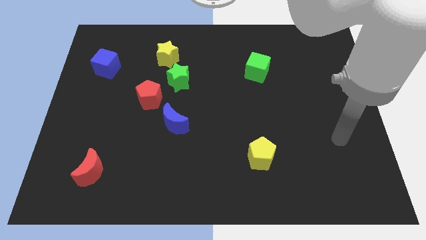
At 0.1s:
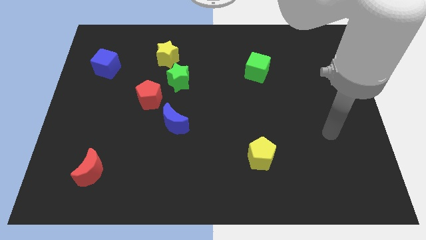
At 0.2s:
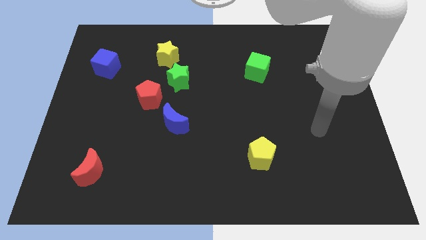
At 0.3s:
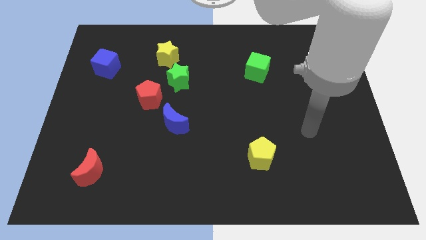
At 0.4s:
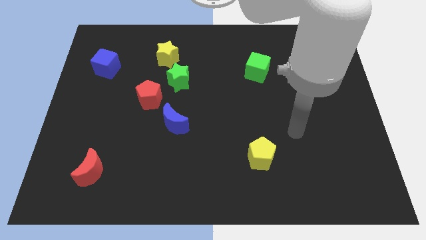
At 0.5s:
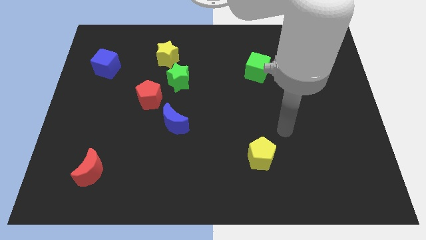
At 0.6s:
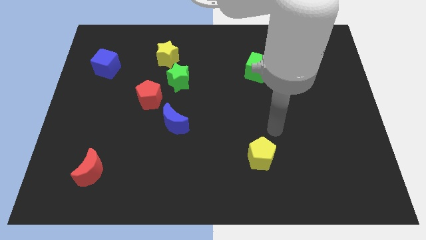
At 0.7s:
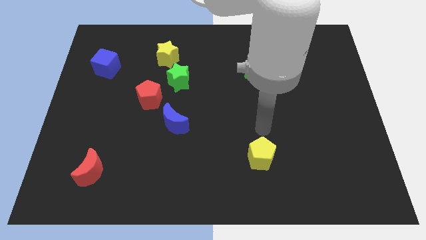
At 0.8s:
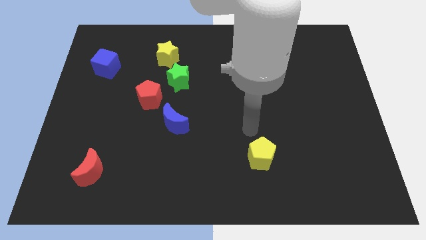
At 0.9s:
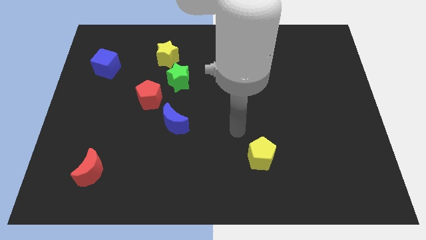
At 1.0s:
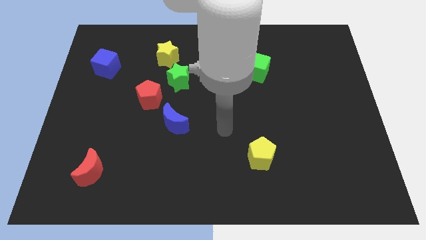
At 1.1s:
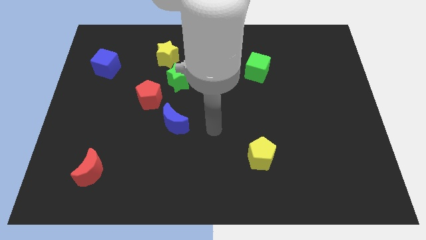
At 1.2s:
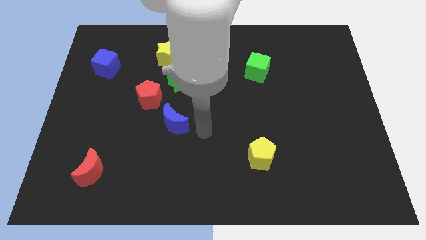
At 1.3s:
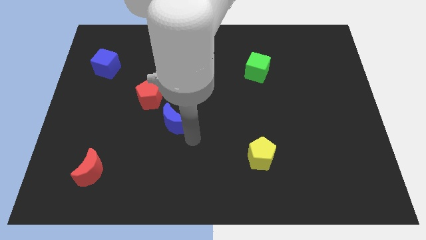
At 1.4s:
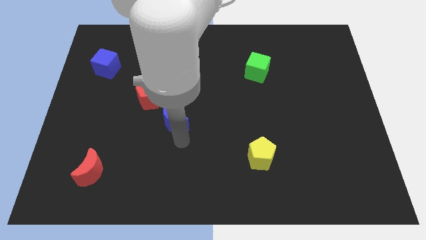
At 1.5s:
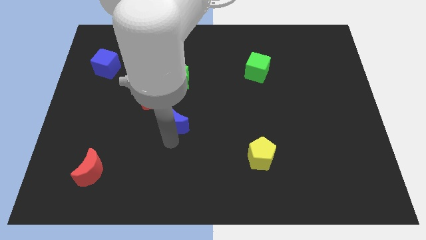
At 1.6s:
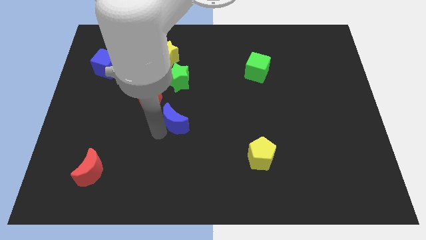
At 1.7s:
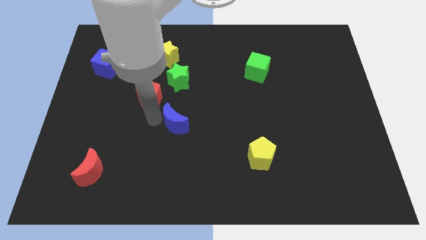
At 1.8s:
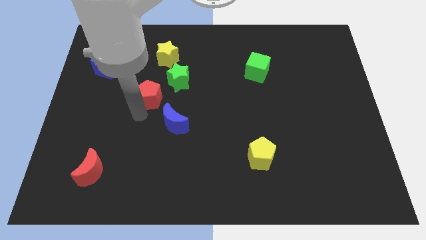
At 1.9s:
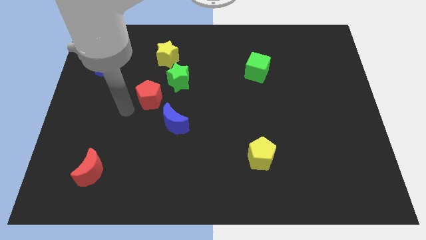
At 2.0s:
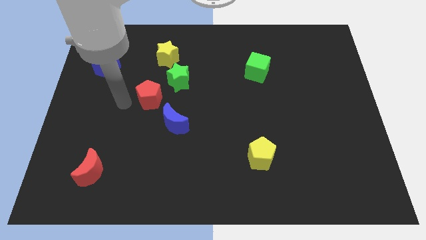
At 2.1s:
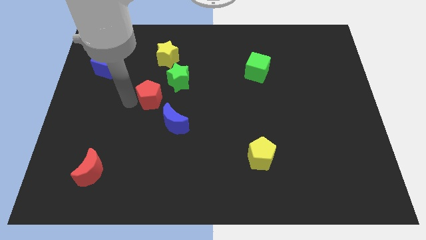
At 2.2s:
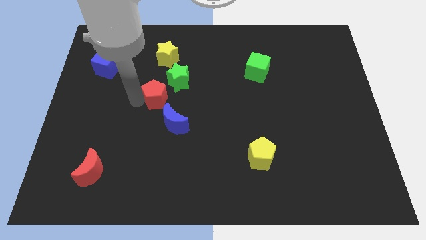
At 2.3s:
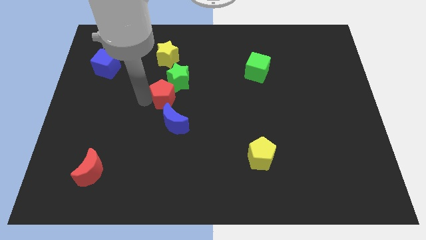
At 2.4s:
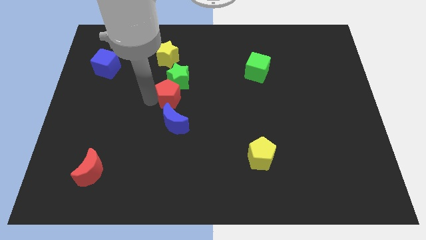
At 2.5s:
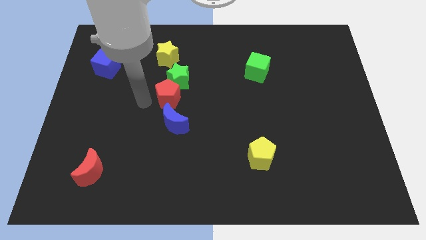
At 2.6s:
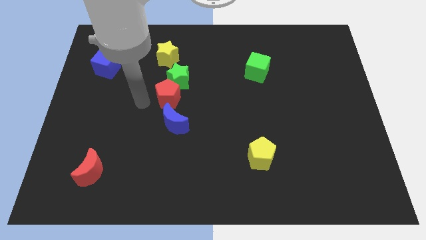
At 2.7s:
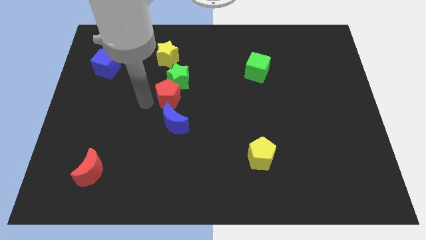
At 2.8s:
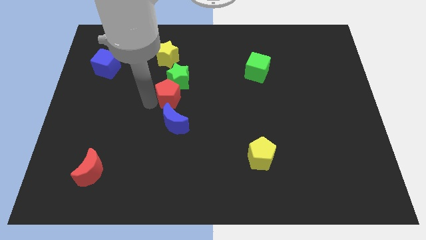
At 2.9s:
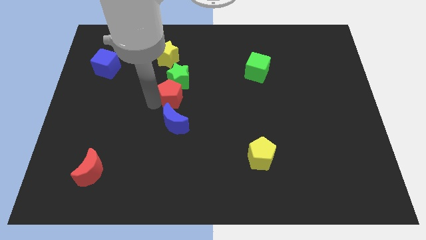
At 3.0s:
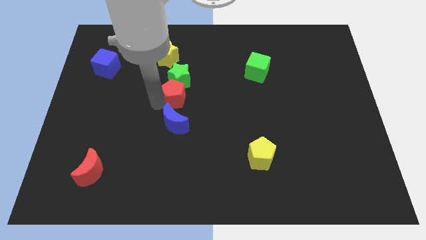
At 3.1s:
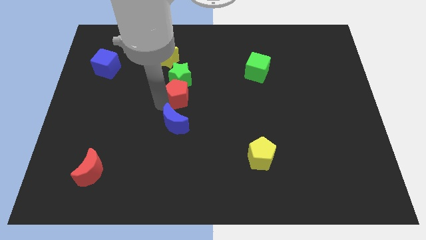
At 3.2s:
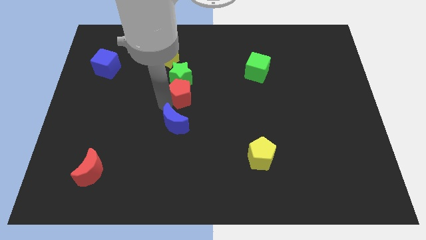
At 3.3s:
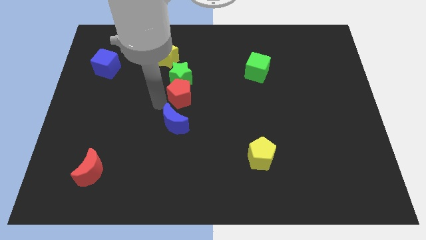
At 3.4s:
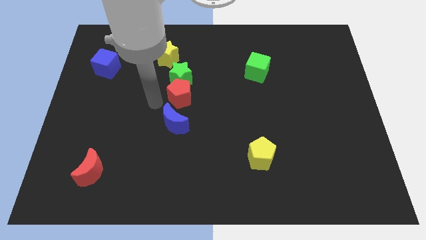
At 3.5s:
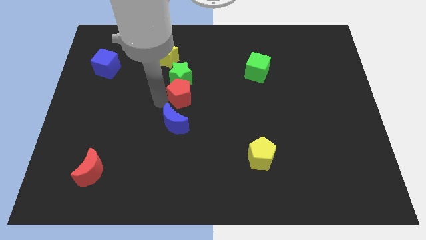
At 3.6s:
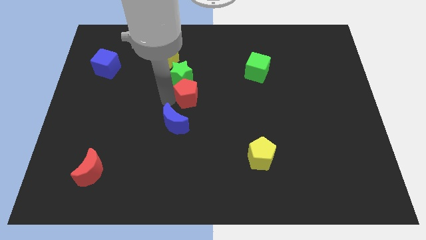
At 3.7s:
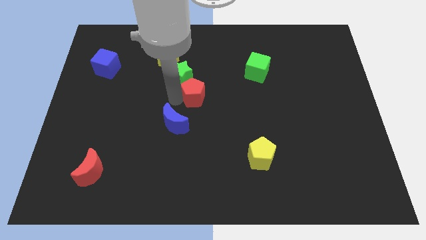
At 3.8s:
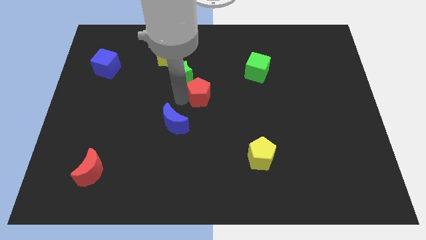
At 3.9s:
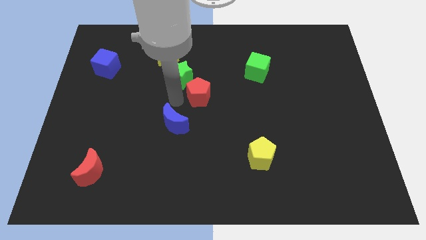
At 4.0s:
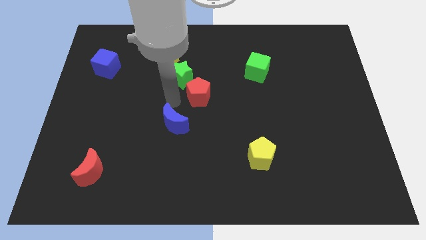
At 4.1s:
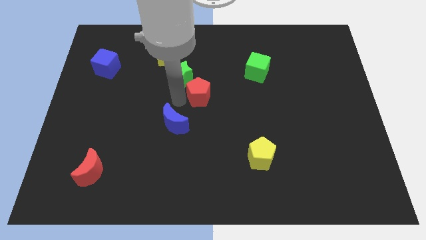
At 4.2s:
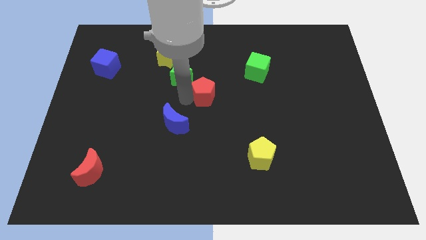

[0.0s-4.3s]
move the red pentagon up and to the right a little bit

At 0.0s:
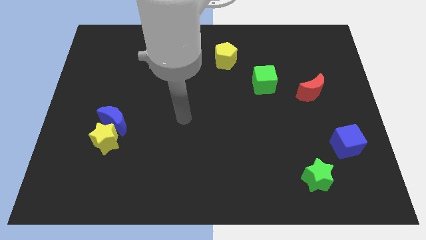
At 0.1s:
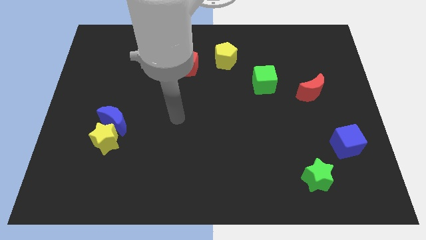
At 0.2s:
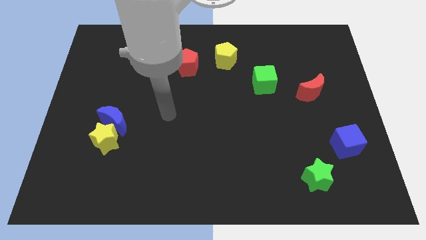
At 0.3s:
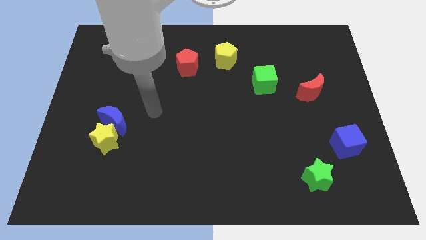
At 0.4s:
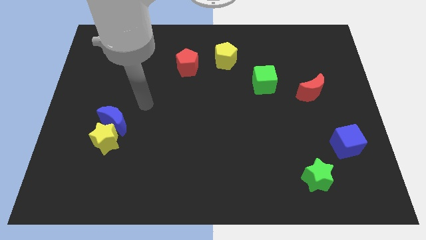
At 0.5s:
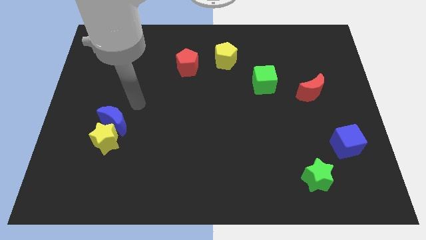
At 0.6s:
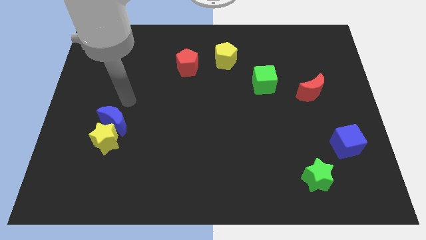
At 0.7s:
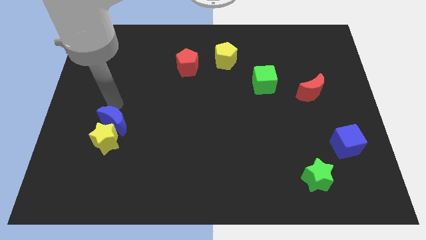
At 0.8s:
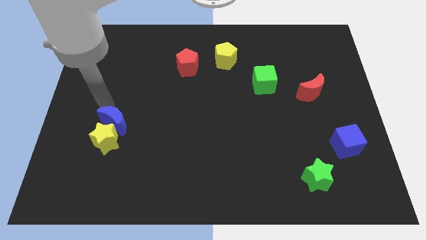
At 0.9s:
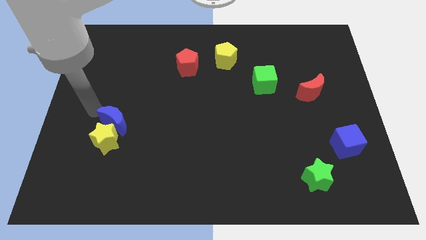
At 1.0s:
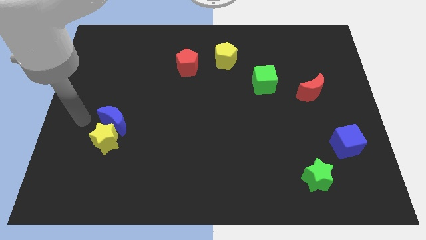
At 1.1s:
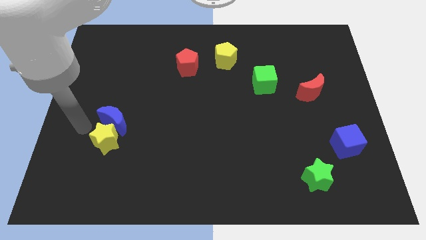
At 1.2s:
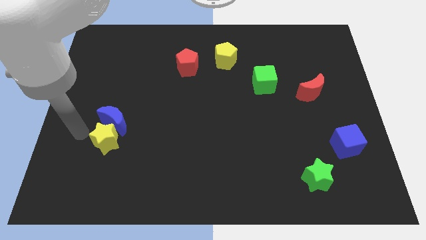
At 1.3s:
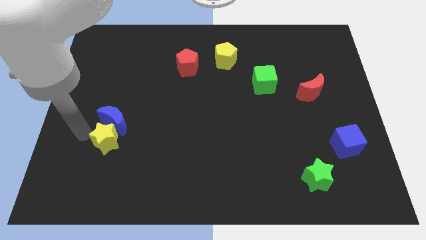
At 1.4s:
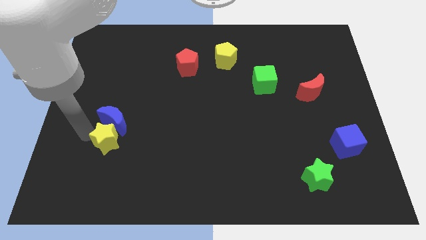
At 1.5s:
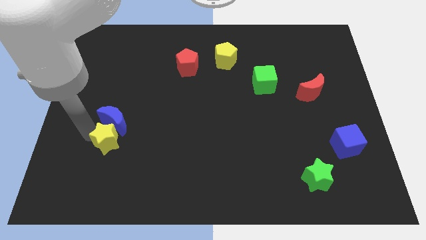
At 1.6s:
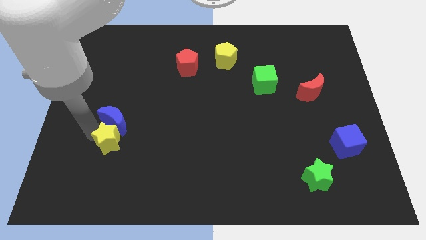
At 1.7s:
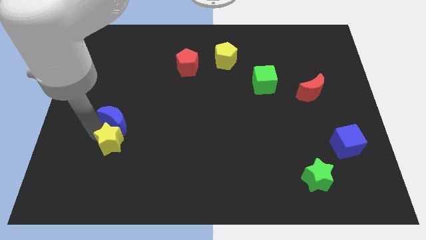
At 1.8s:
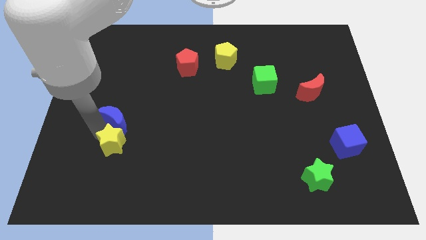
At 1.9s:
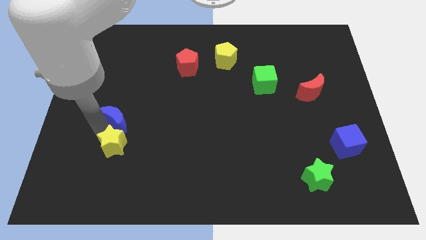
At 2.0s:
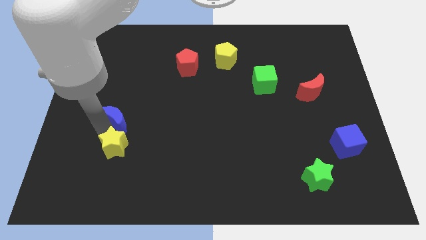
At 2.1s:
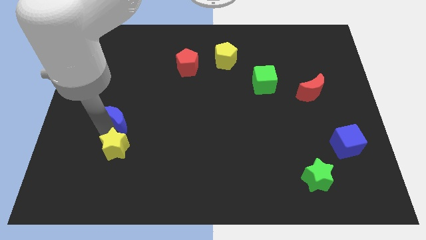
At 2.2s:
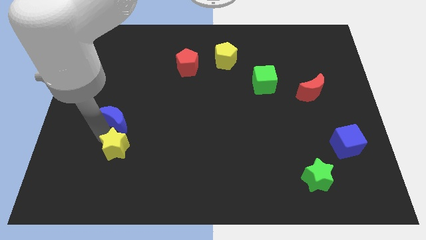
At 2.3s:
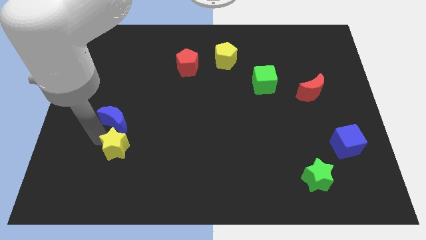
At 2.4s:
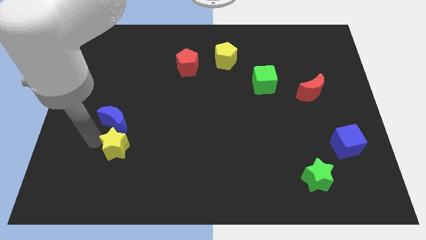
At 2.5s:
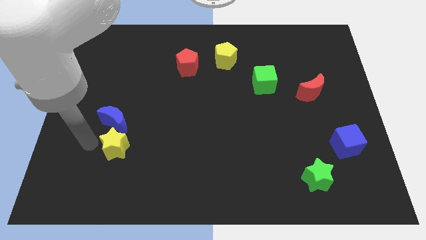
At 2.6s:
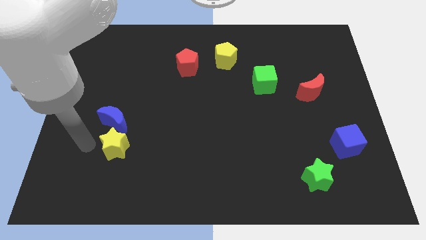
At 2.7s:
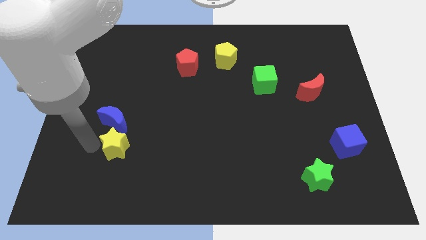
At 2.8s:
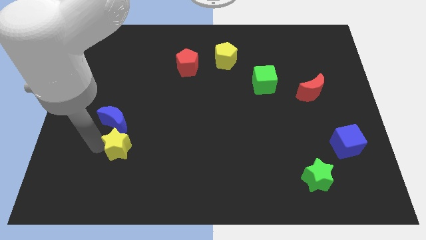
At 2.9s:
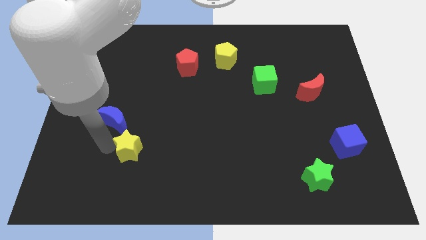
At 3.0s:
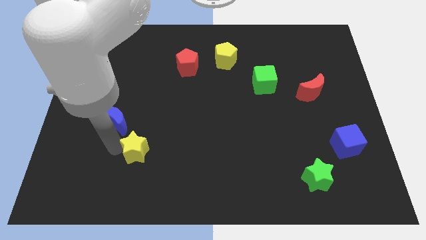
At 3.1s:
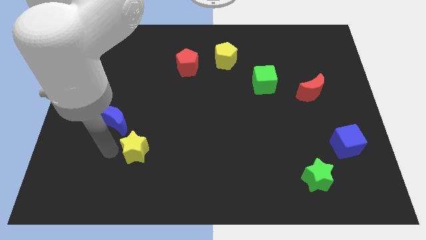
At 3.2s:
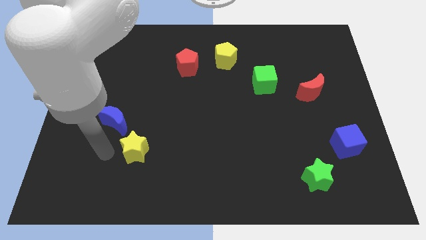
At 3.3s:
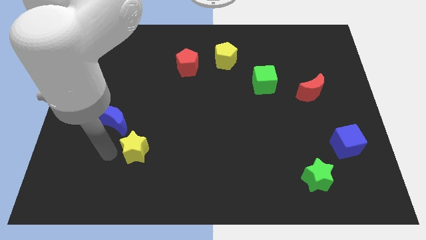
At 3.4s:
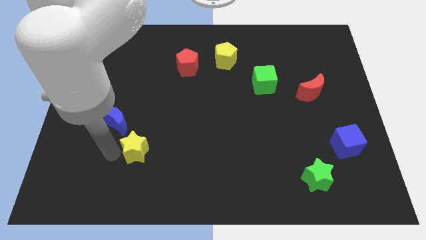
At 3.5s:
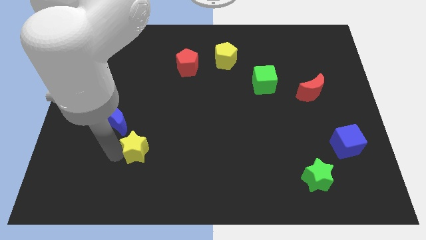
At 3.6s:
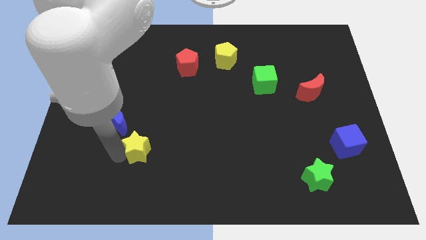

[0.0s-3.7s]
move the yellow star slightly right

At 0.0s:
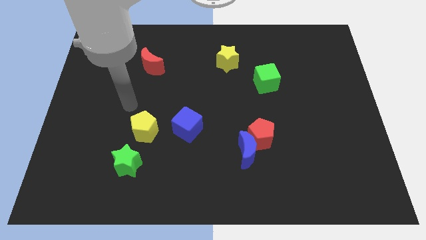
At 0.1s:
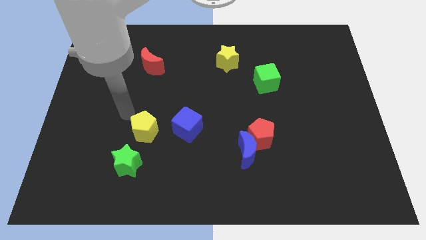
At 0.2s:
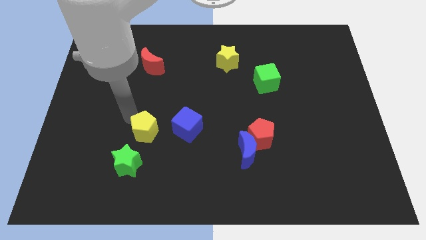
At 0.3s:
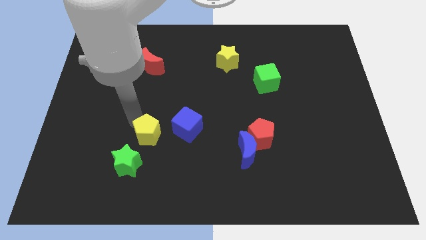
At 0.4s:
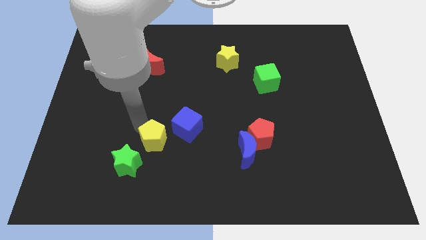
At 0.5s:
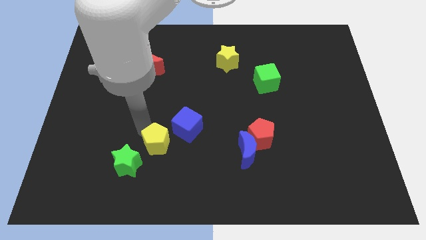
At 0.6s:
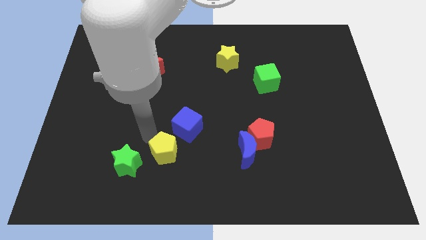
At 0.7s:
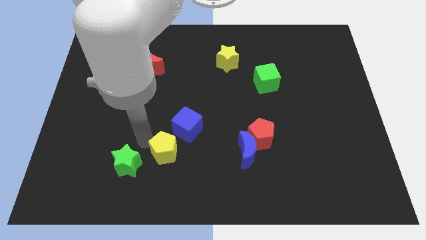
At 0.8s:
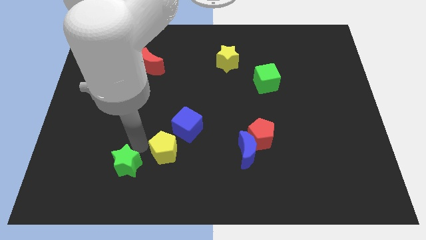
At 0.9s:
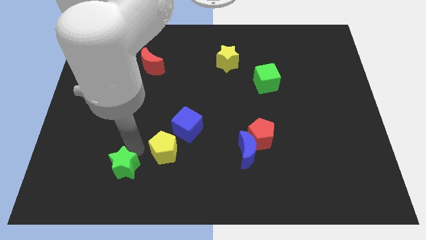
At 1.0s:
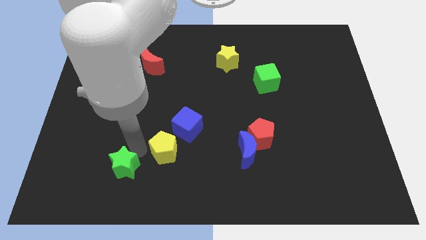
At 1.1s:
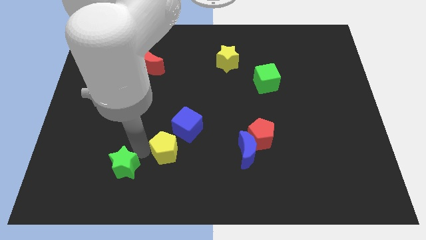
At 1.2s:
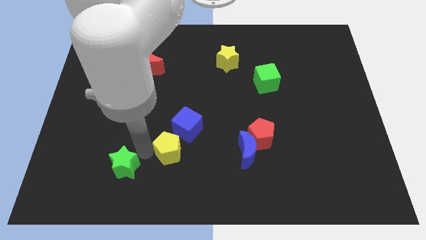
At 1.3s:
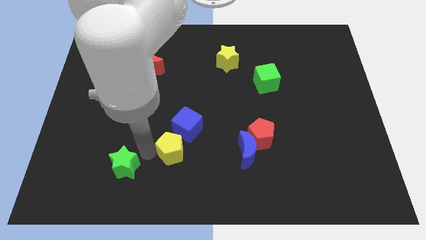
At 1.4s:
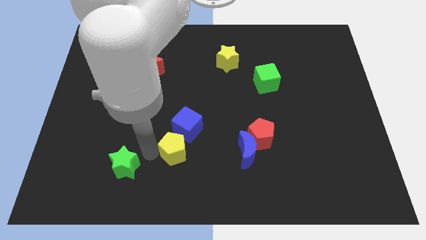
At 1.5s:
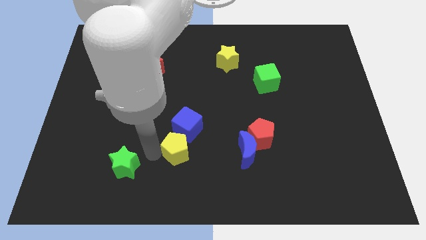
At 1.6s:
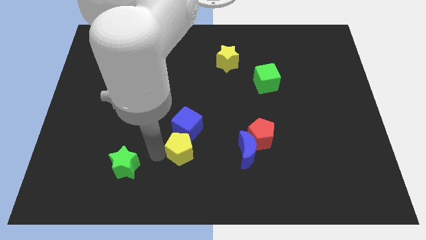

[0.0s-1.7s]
push the yellow pentagon right slightly
